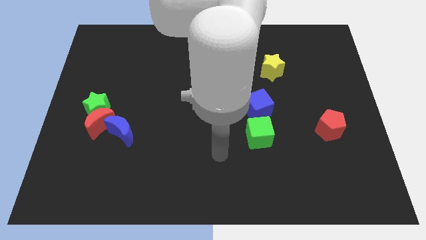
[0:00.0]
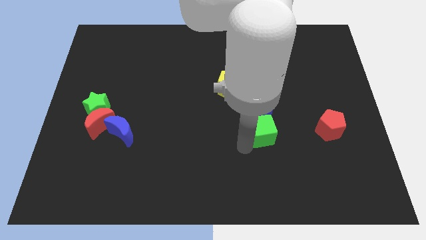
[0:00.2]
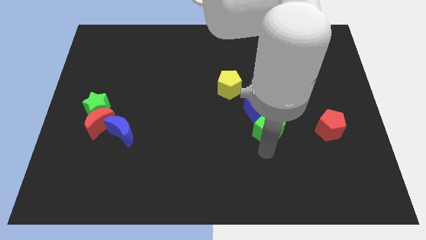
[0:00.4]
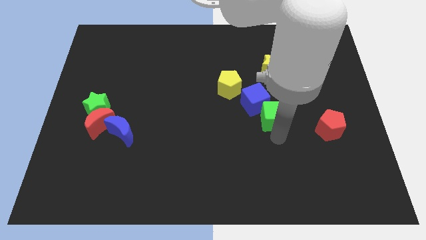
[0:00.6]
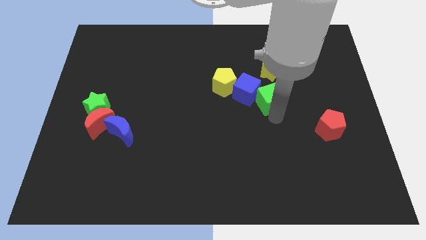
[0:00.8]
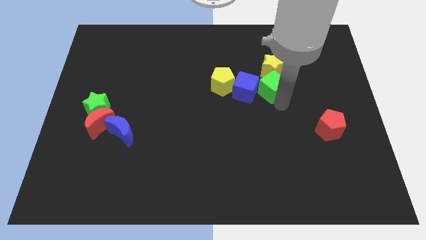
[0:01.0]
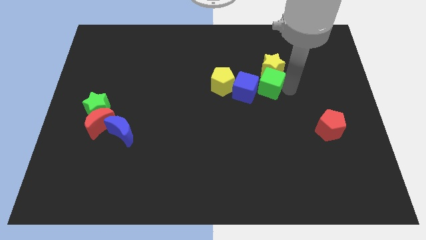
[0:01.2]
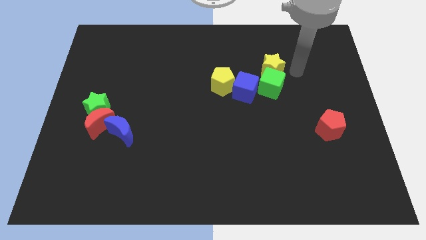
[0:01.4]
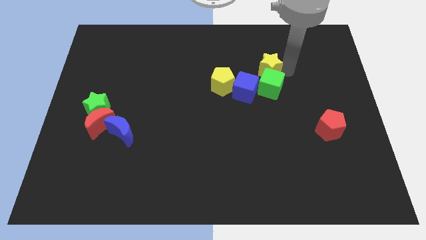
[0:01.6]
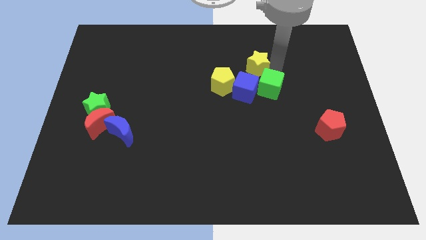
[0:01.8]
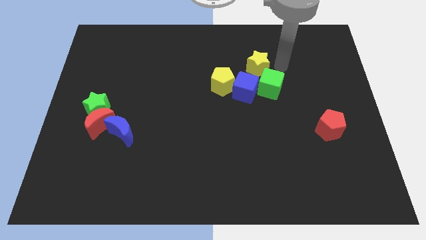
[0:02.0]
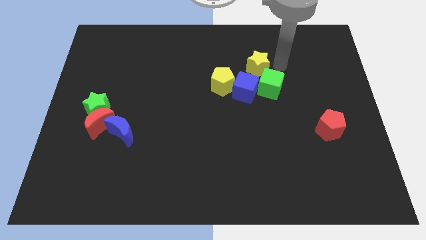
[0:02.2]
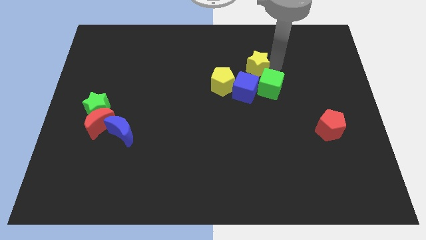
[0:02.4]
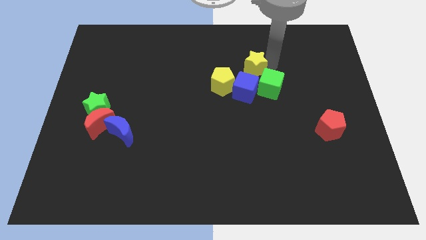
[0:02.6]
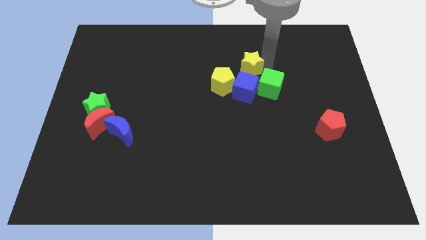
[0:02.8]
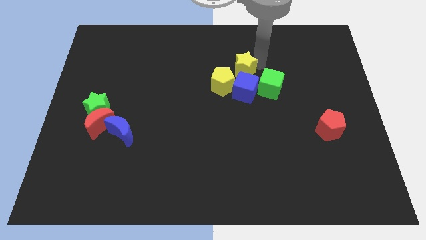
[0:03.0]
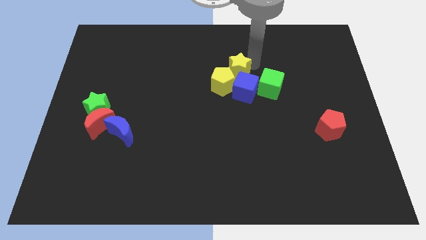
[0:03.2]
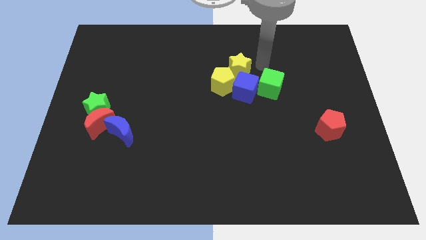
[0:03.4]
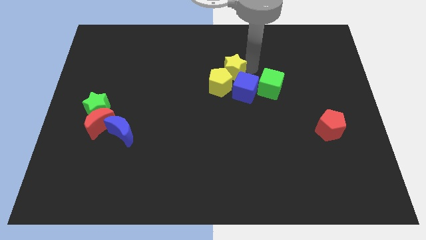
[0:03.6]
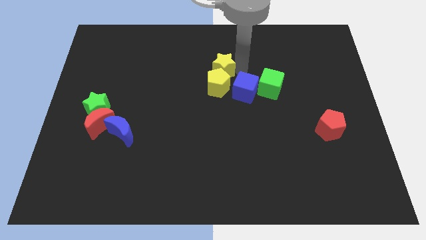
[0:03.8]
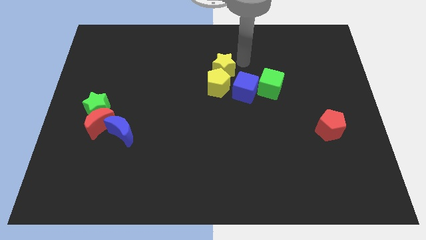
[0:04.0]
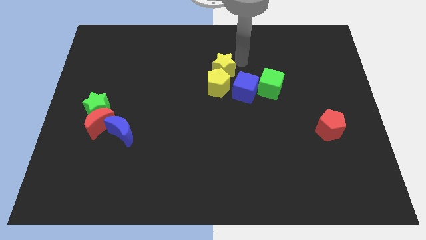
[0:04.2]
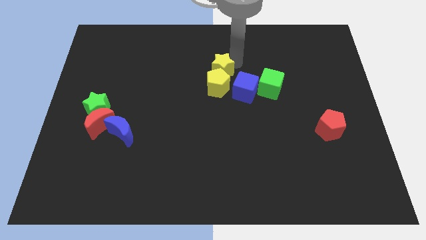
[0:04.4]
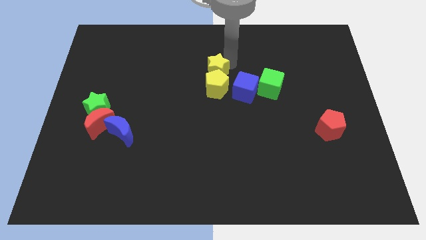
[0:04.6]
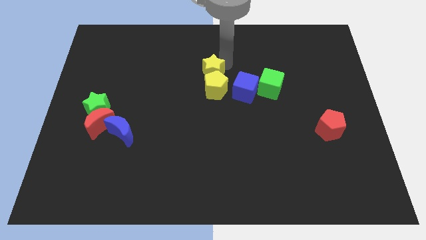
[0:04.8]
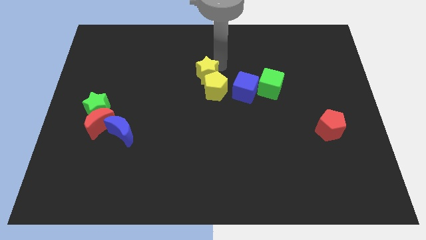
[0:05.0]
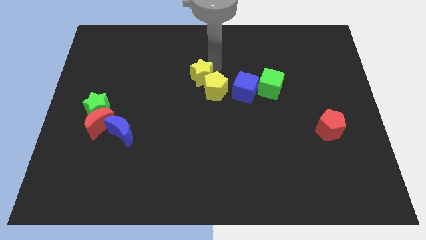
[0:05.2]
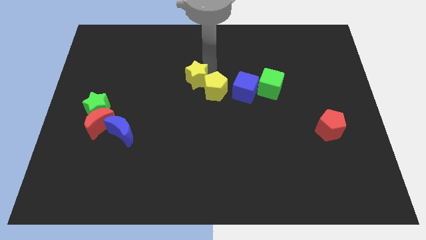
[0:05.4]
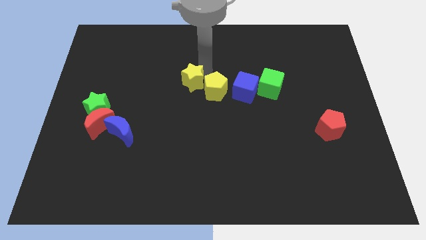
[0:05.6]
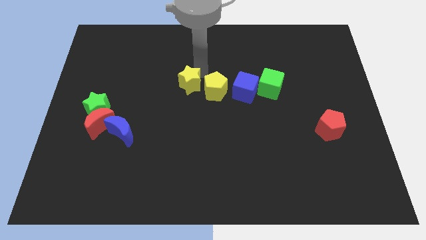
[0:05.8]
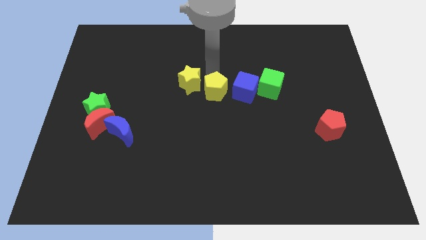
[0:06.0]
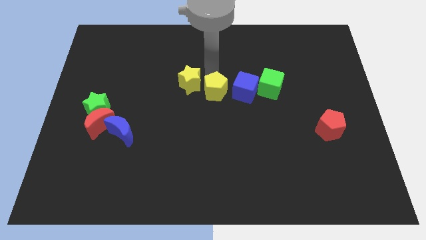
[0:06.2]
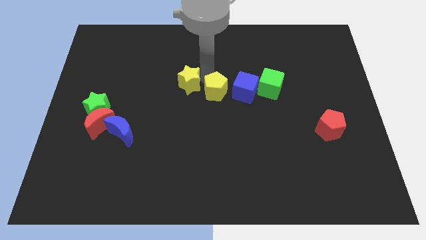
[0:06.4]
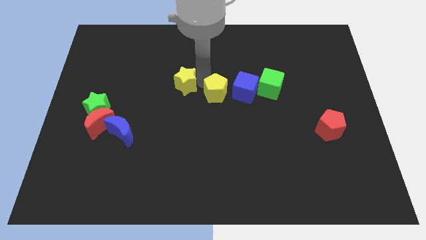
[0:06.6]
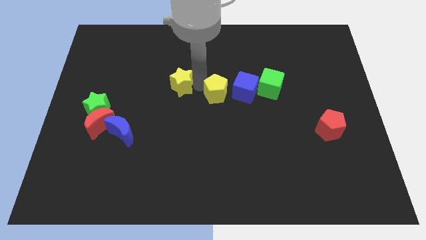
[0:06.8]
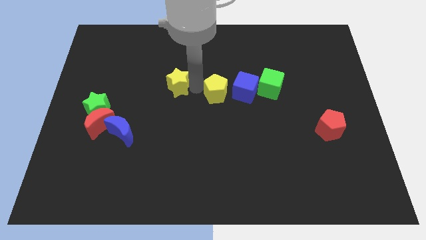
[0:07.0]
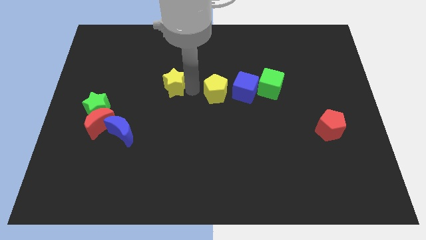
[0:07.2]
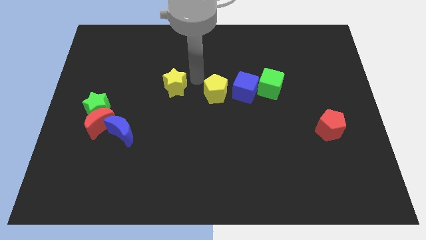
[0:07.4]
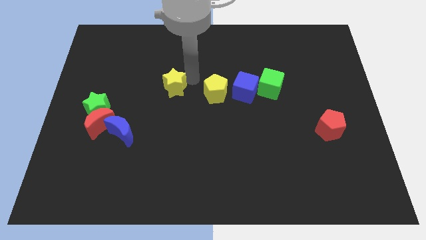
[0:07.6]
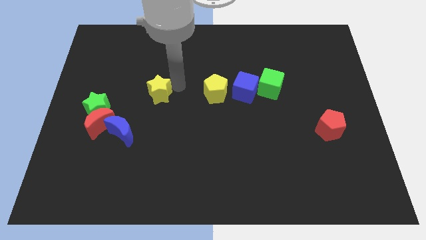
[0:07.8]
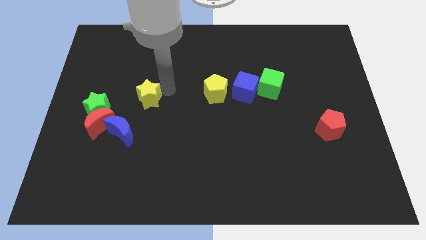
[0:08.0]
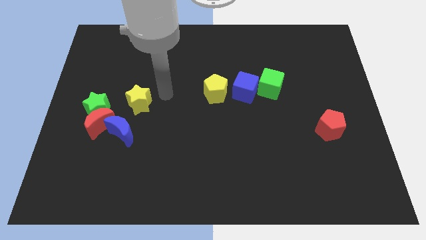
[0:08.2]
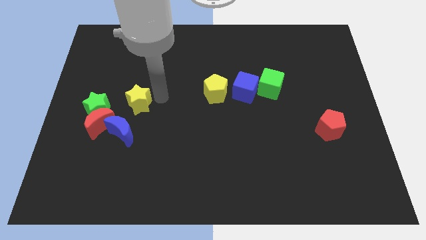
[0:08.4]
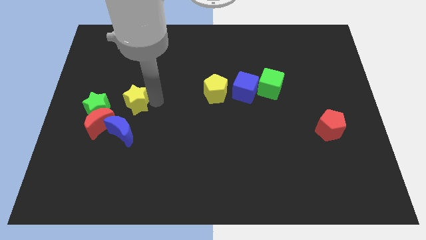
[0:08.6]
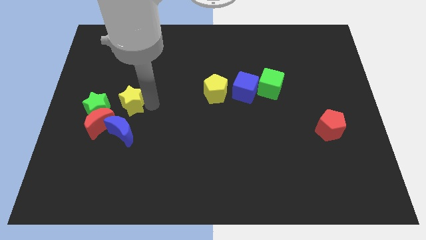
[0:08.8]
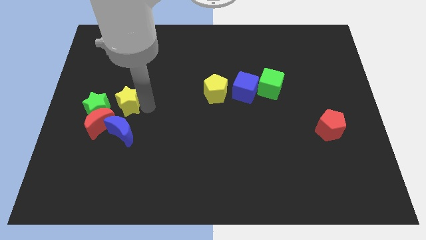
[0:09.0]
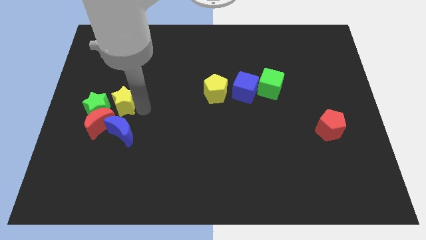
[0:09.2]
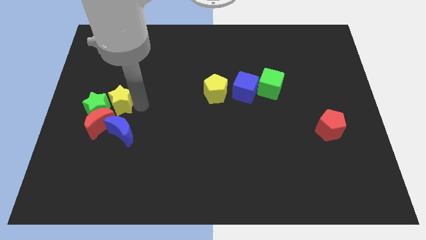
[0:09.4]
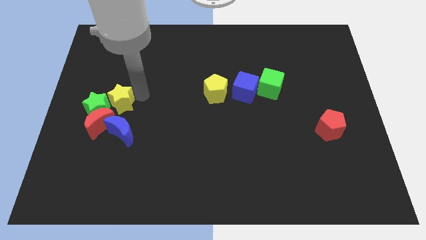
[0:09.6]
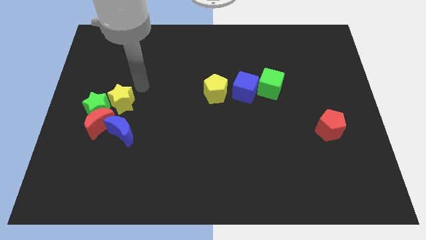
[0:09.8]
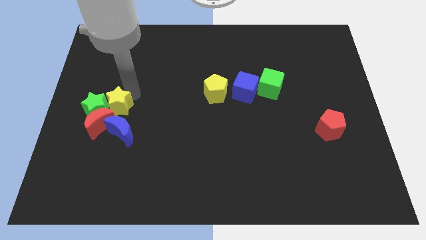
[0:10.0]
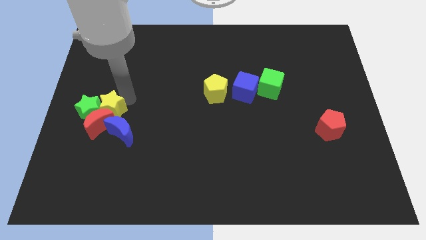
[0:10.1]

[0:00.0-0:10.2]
move the yellow star to the red moon

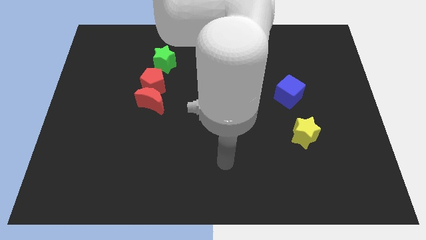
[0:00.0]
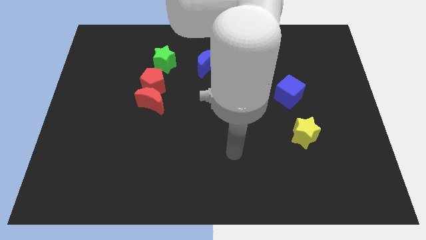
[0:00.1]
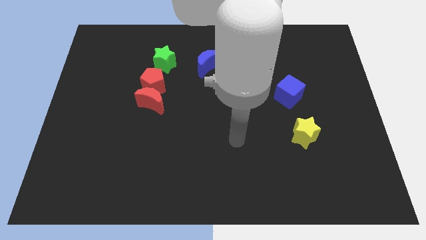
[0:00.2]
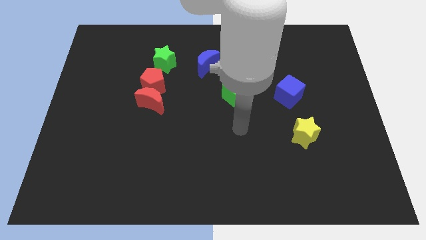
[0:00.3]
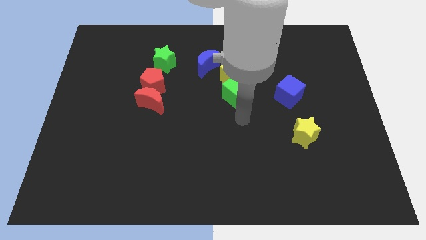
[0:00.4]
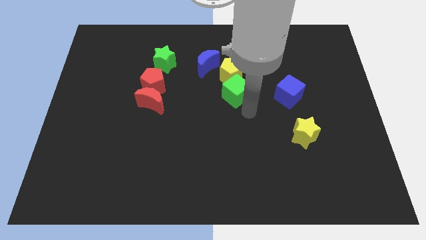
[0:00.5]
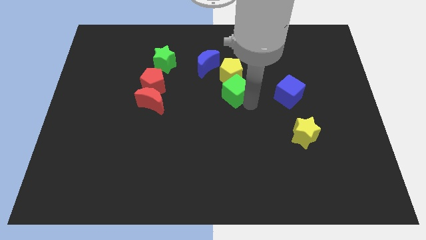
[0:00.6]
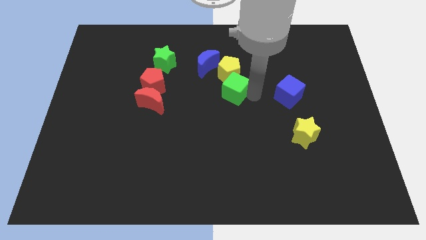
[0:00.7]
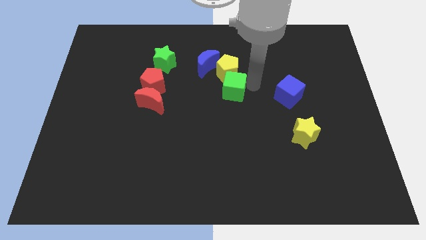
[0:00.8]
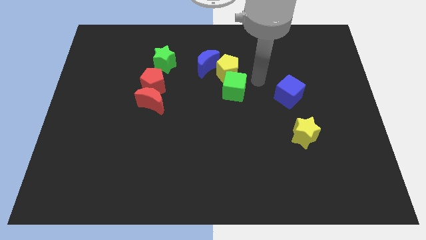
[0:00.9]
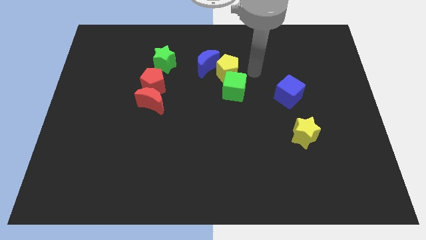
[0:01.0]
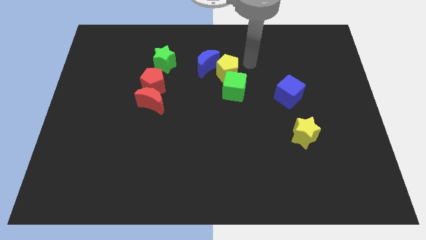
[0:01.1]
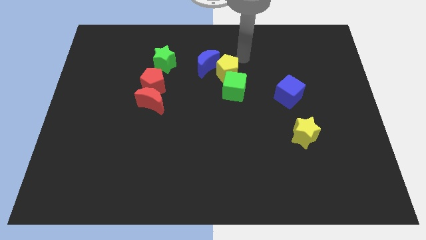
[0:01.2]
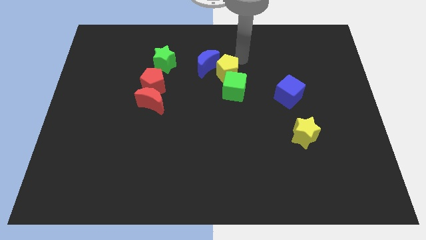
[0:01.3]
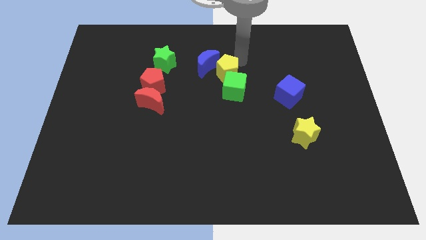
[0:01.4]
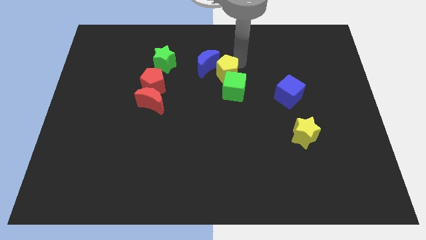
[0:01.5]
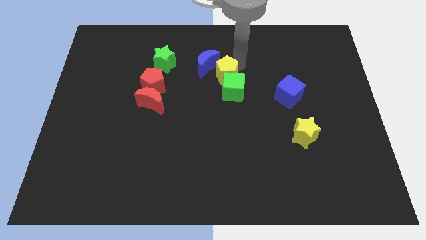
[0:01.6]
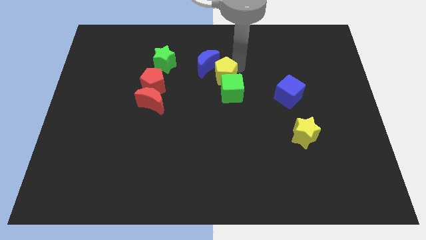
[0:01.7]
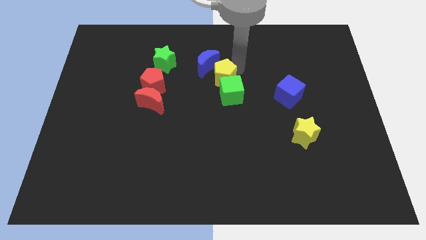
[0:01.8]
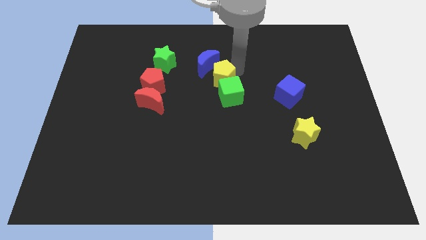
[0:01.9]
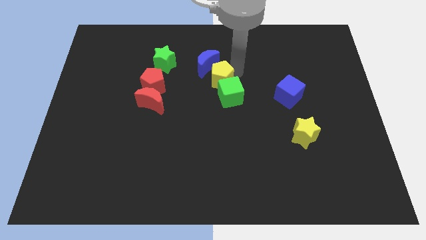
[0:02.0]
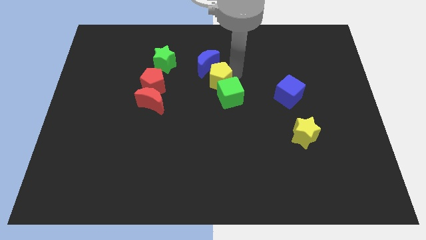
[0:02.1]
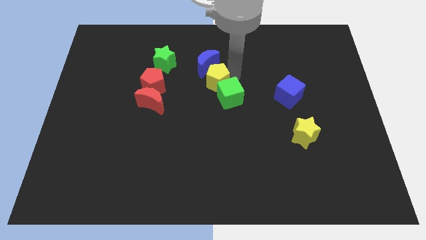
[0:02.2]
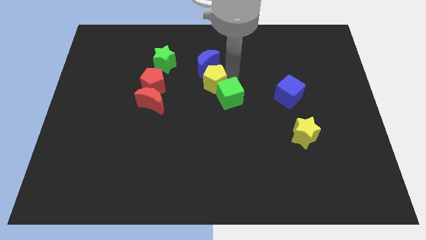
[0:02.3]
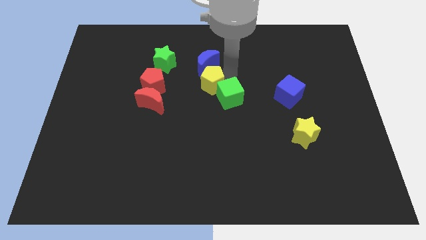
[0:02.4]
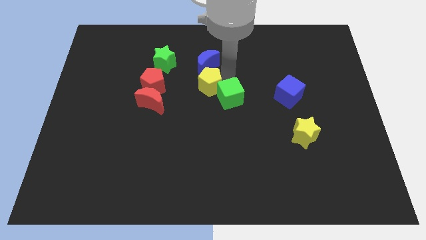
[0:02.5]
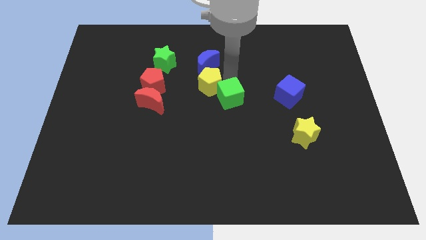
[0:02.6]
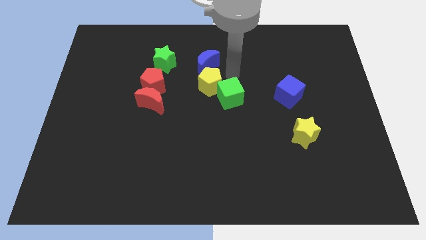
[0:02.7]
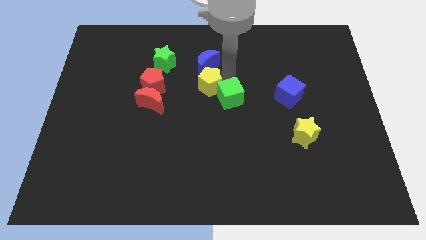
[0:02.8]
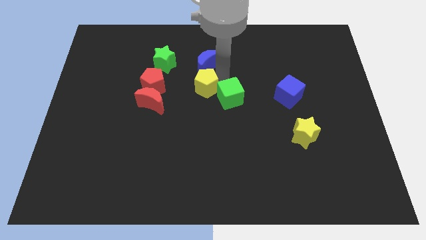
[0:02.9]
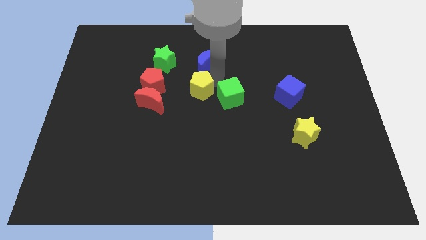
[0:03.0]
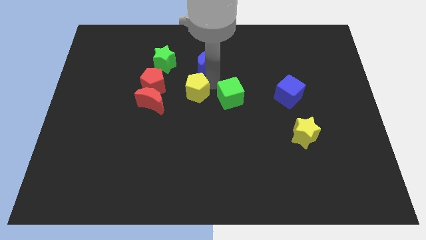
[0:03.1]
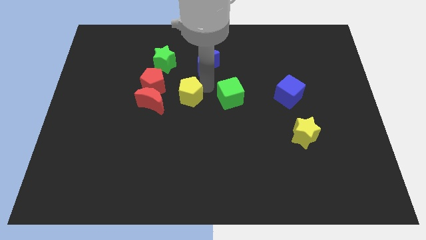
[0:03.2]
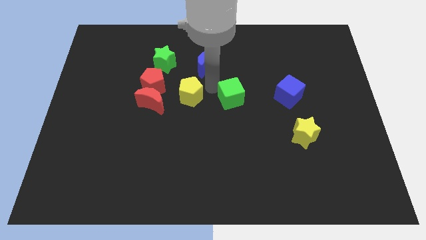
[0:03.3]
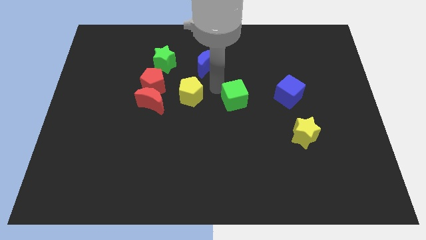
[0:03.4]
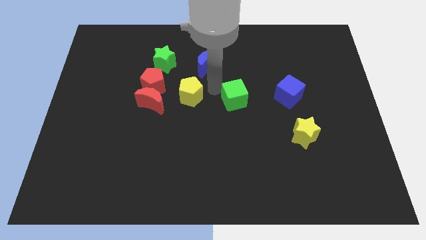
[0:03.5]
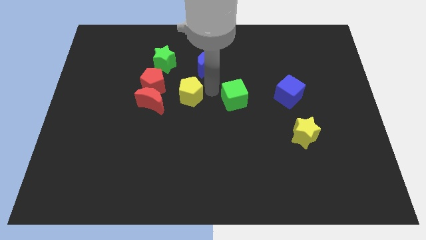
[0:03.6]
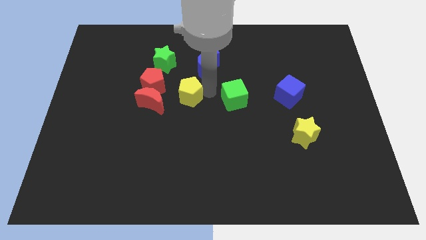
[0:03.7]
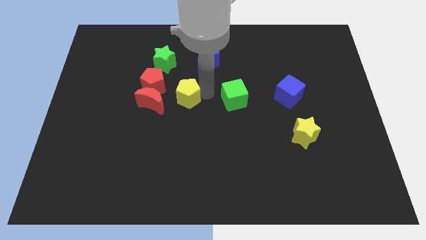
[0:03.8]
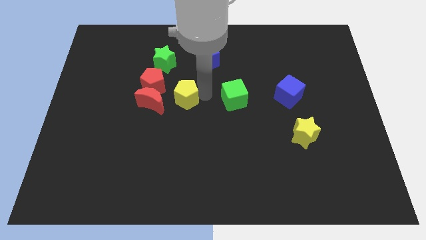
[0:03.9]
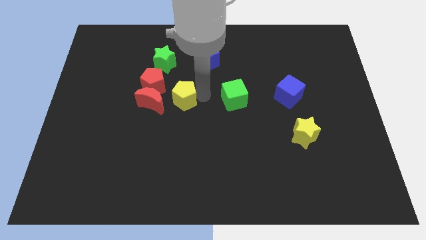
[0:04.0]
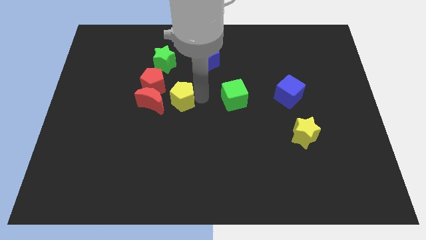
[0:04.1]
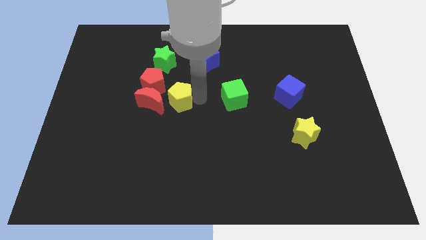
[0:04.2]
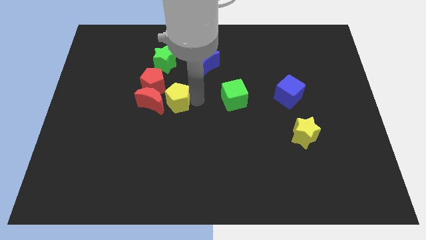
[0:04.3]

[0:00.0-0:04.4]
push the yellow pentagon close to the red moon
